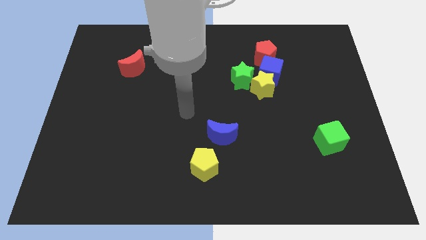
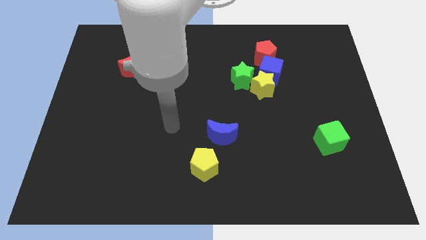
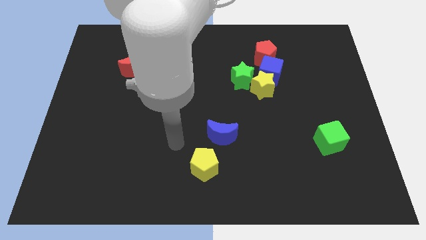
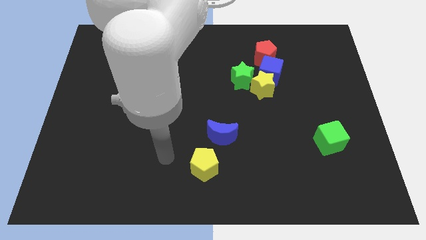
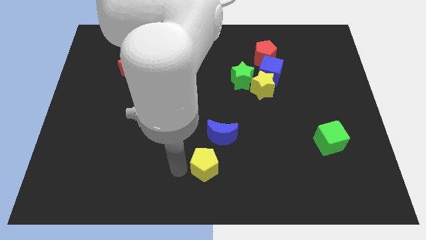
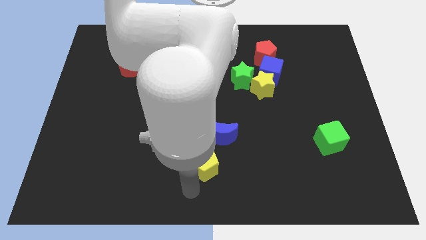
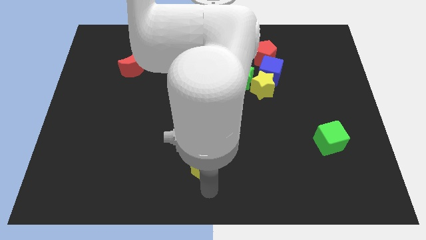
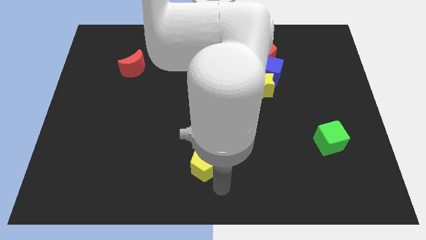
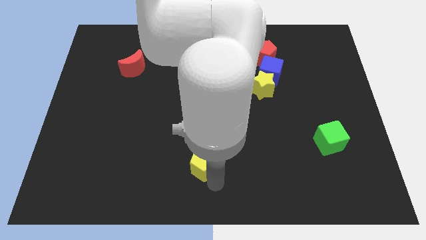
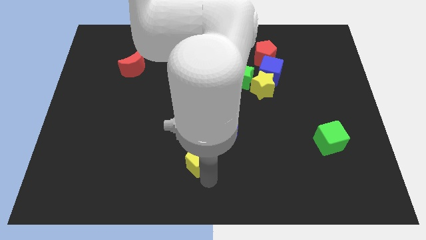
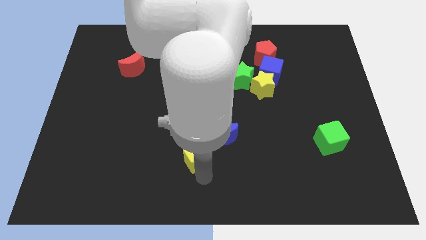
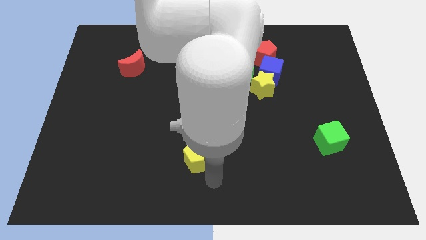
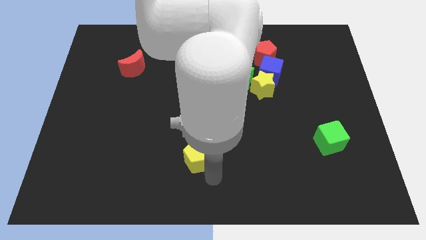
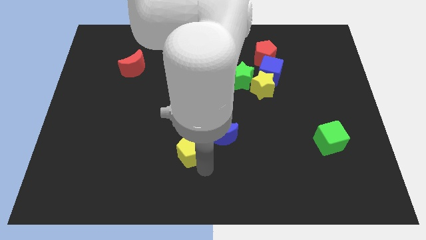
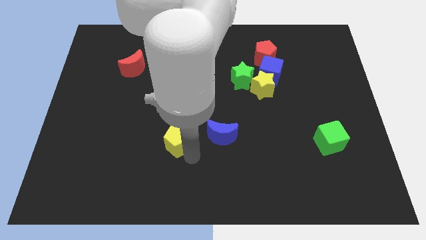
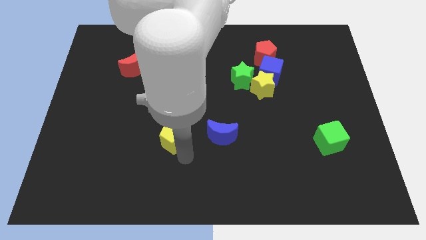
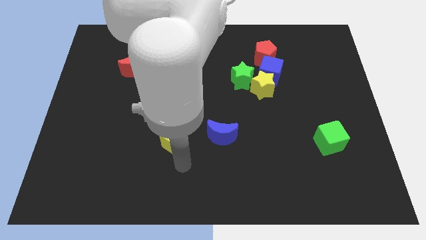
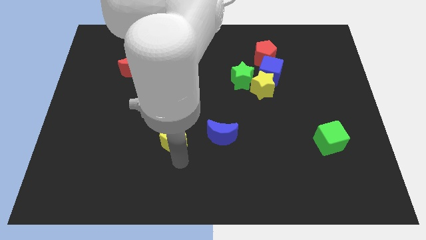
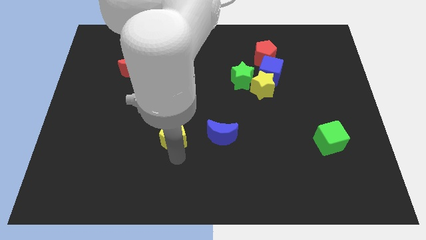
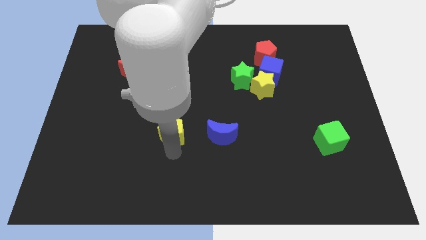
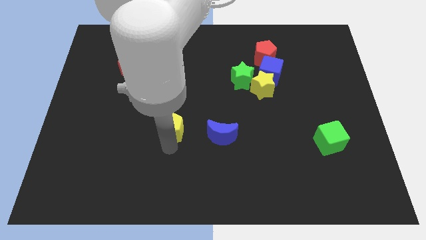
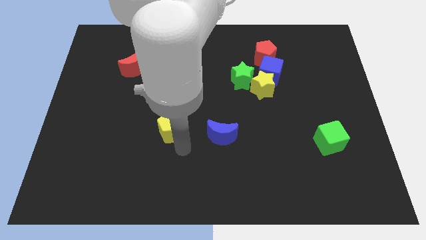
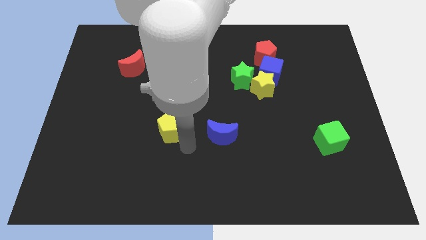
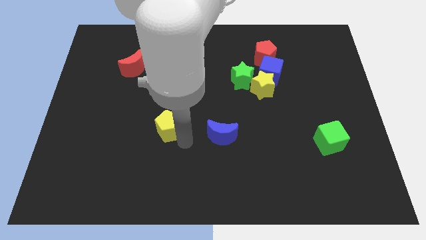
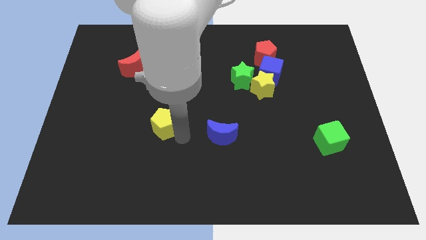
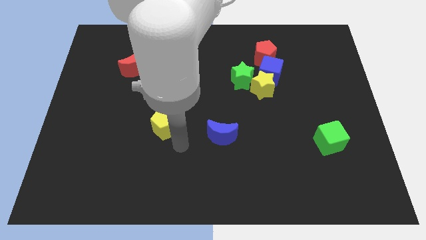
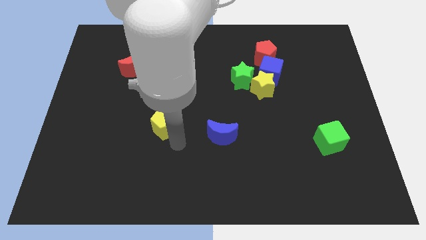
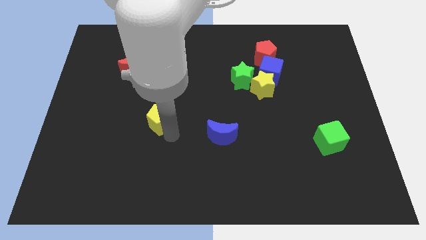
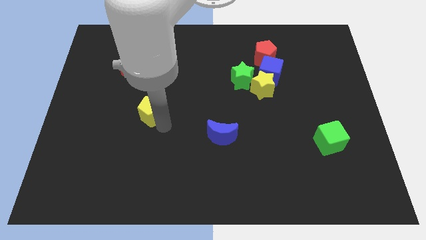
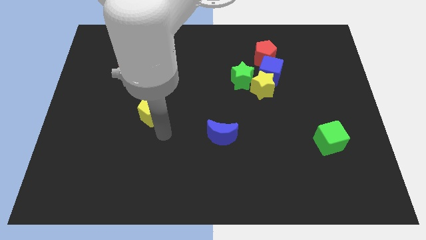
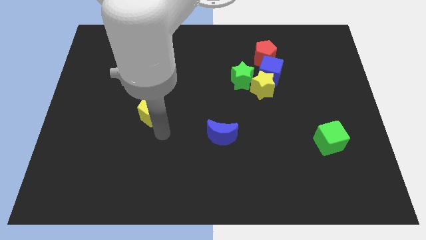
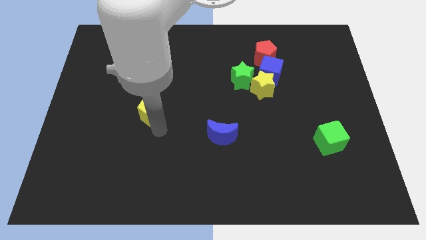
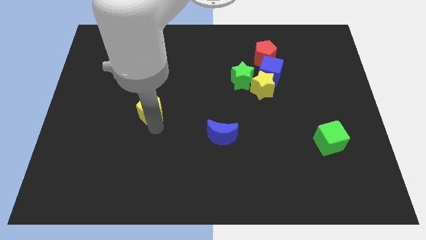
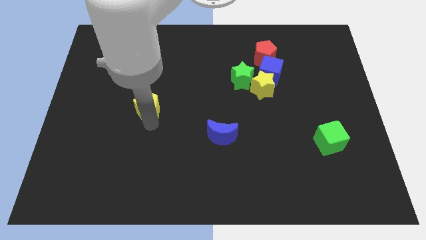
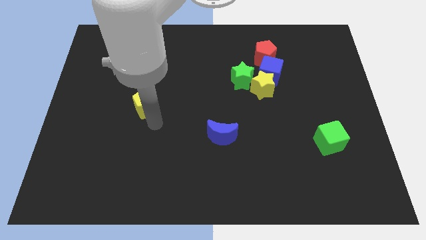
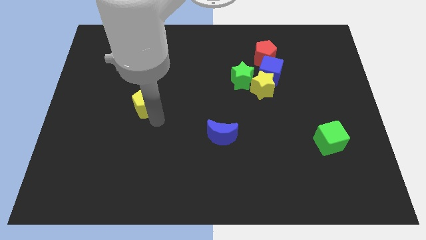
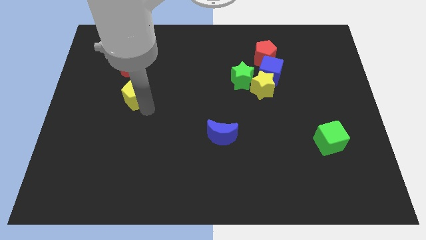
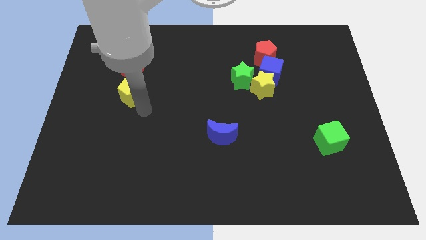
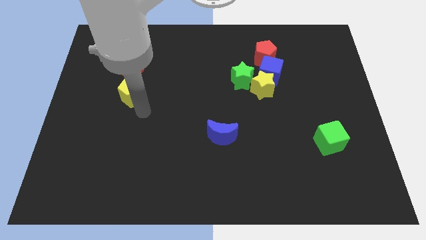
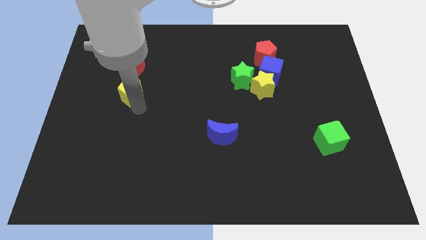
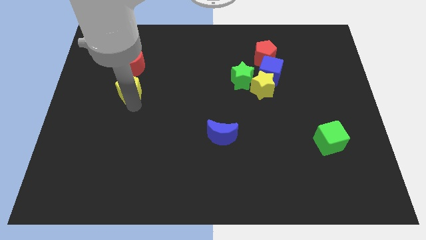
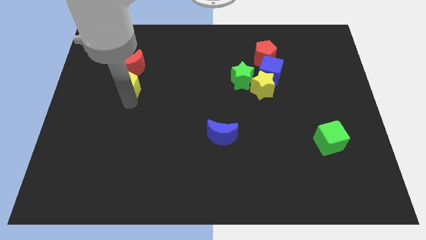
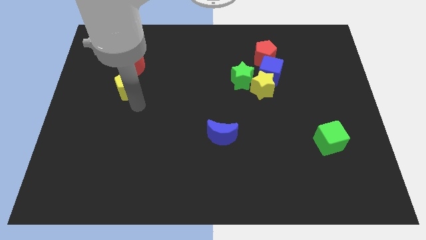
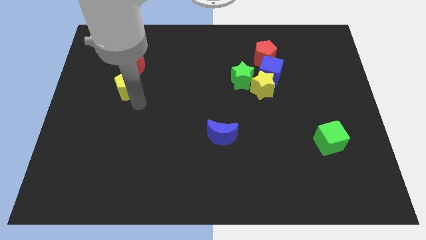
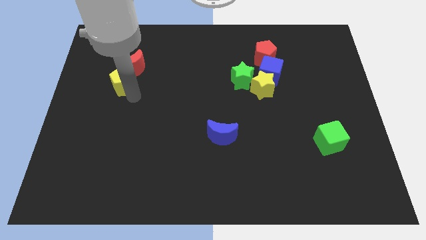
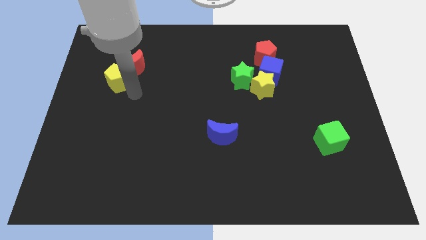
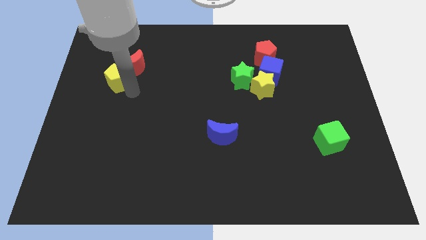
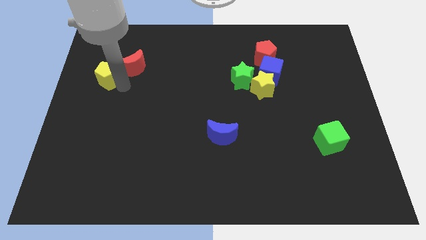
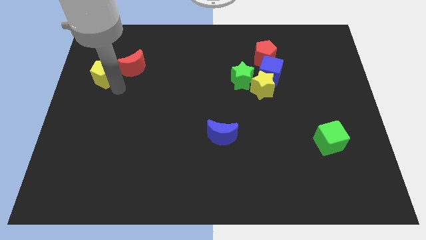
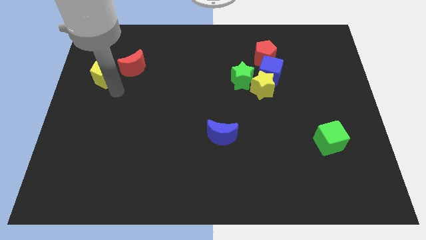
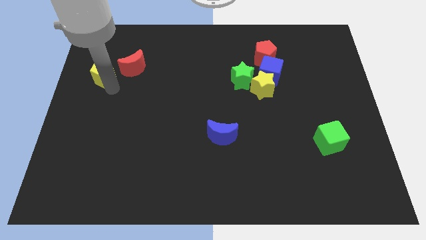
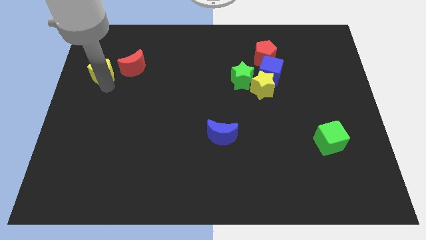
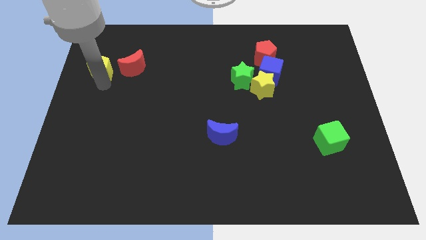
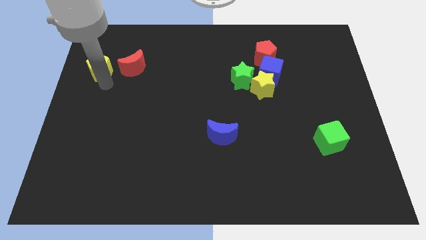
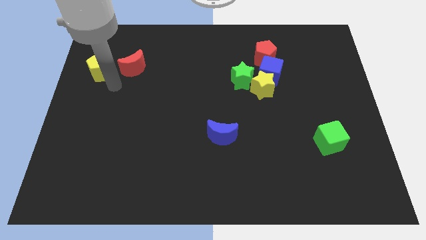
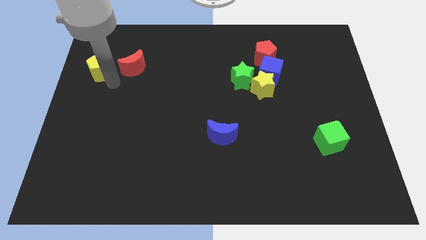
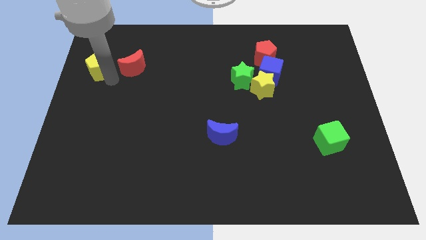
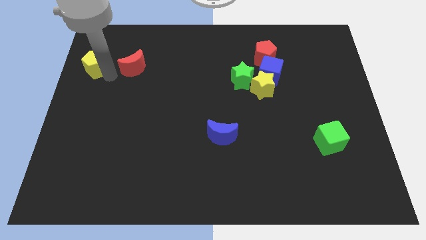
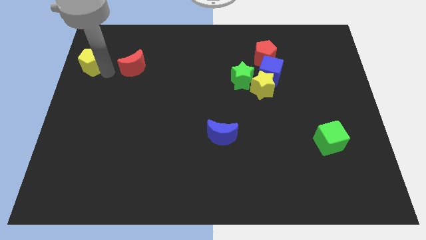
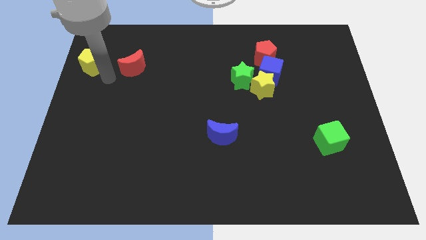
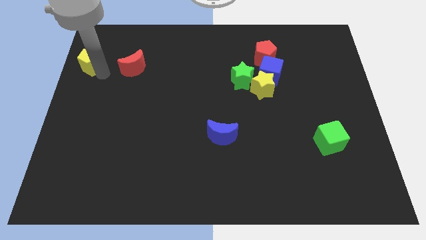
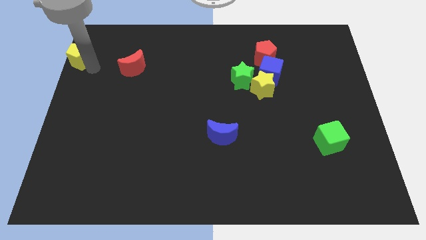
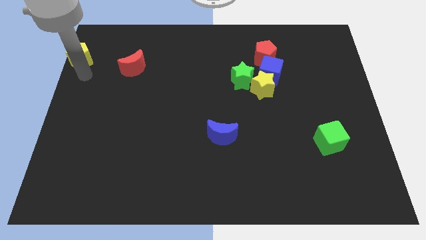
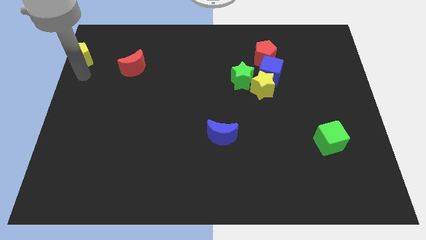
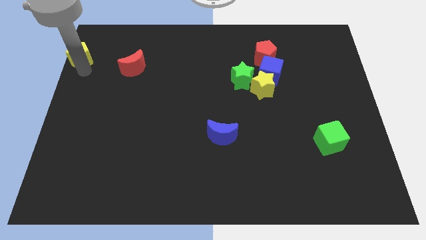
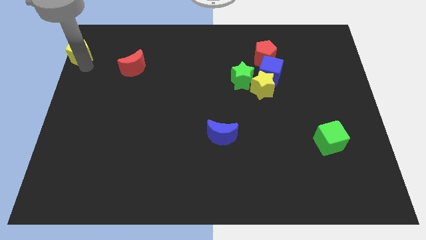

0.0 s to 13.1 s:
push the yellow pentagon to the top left
